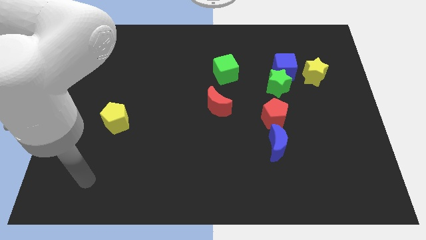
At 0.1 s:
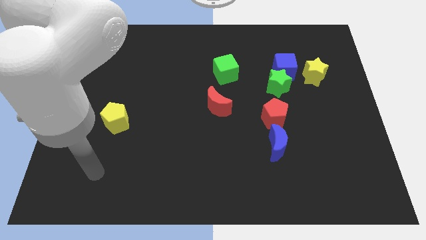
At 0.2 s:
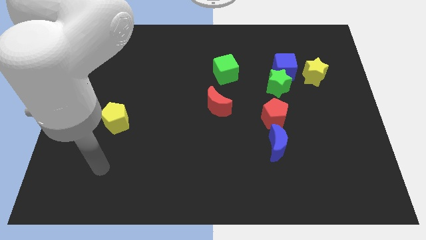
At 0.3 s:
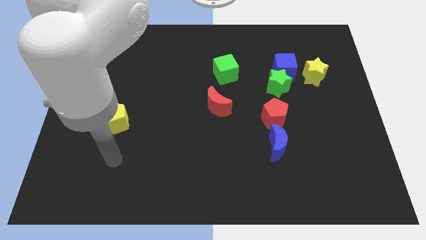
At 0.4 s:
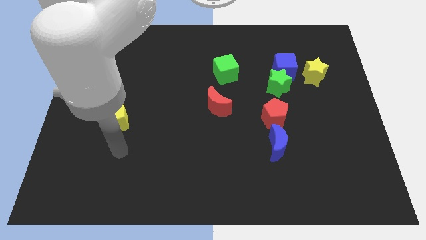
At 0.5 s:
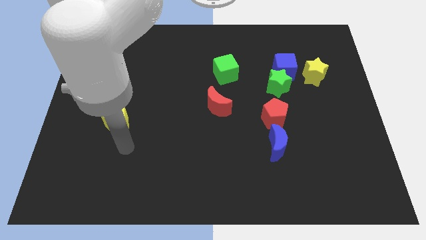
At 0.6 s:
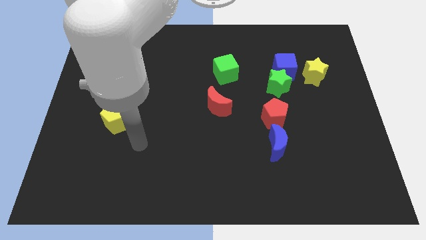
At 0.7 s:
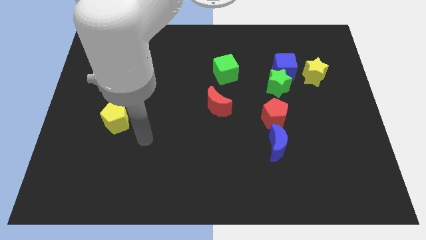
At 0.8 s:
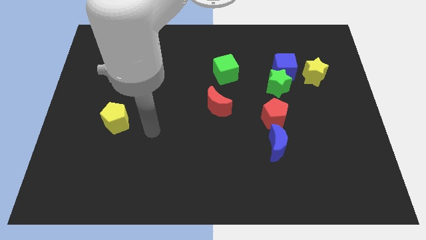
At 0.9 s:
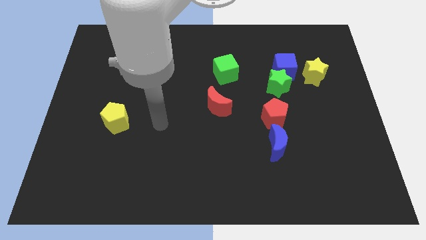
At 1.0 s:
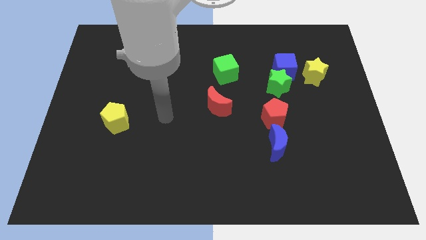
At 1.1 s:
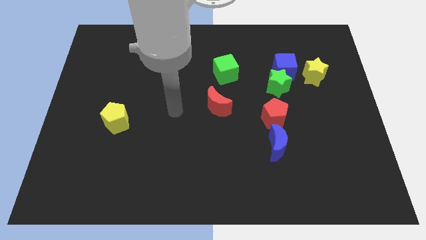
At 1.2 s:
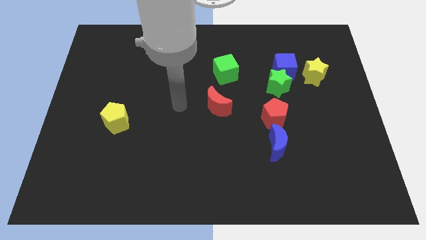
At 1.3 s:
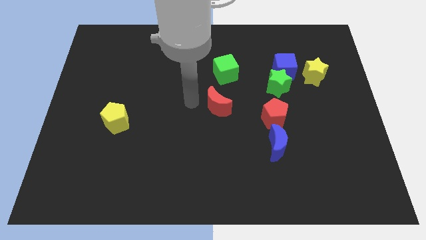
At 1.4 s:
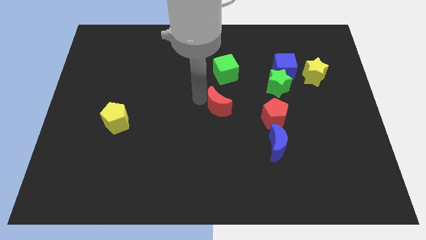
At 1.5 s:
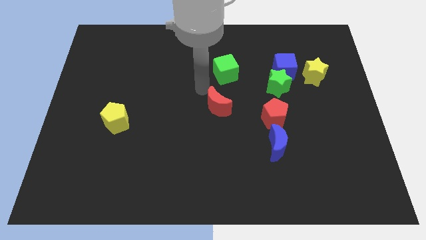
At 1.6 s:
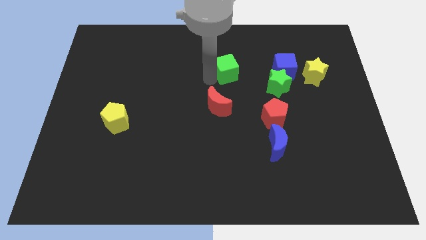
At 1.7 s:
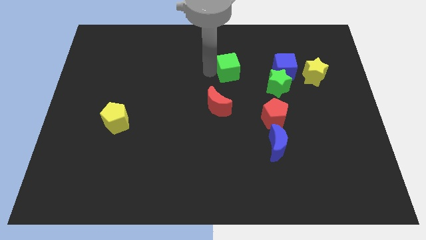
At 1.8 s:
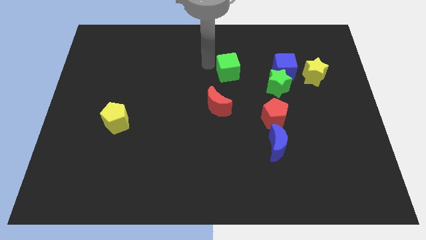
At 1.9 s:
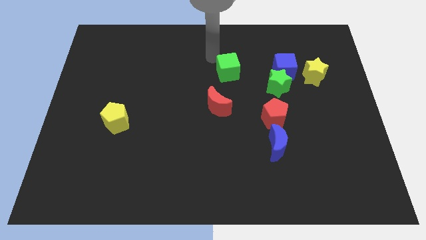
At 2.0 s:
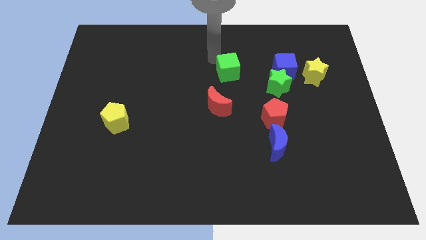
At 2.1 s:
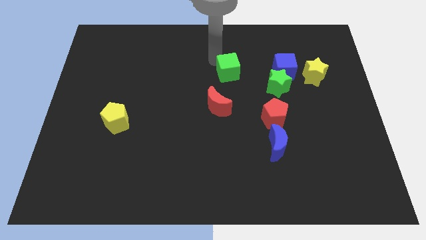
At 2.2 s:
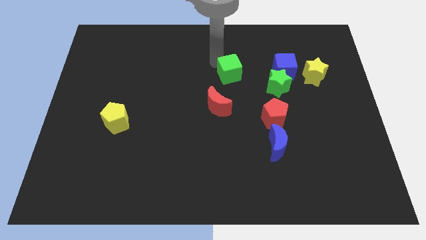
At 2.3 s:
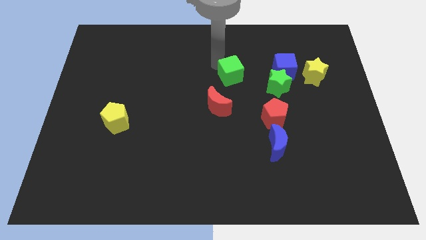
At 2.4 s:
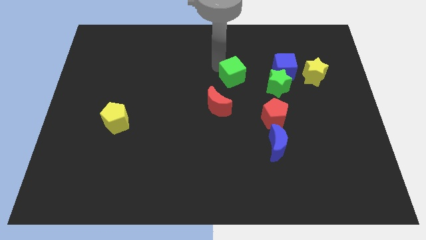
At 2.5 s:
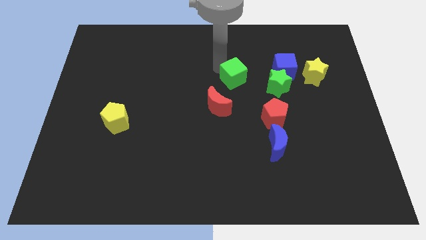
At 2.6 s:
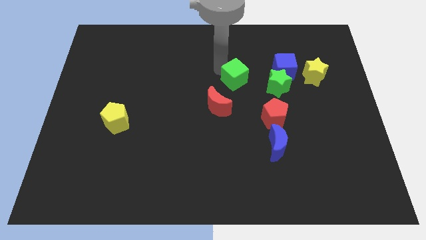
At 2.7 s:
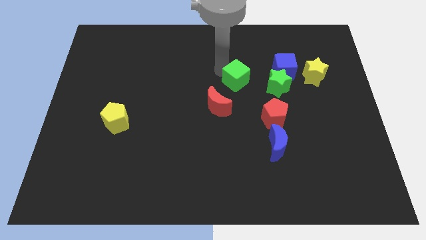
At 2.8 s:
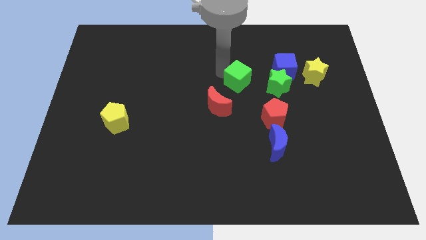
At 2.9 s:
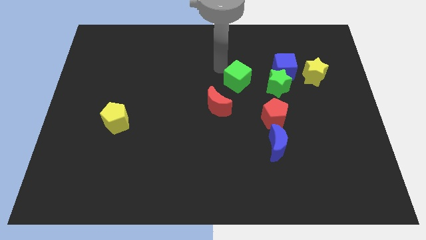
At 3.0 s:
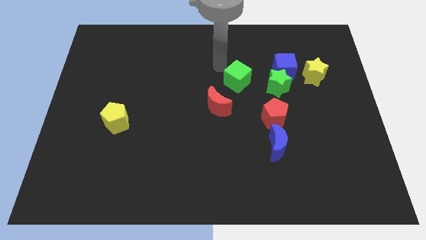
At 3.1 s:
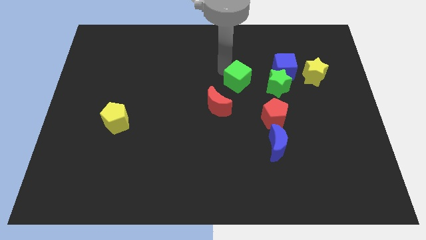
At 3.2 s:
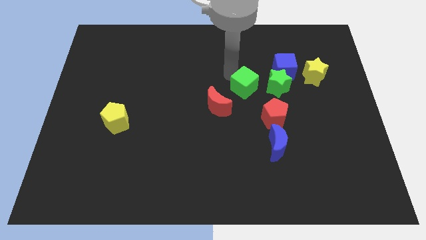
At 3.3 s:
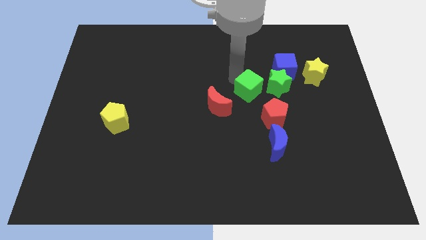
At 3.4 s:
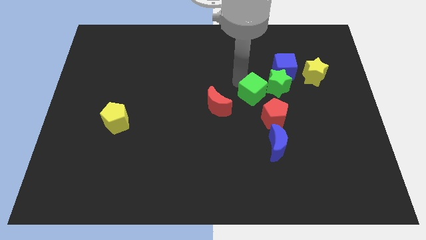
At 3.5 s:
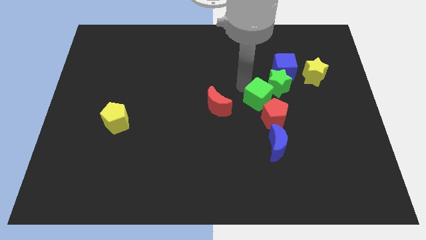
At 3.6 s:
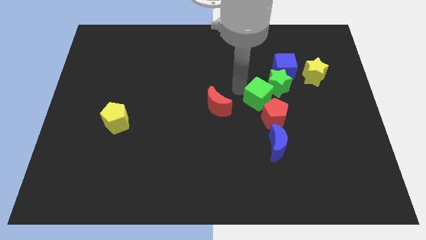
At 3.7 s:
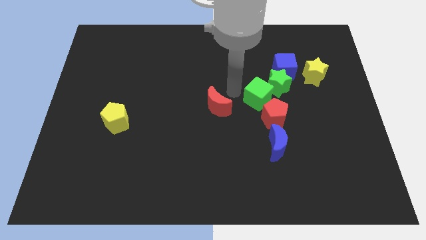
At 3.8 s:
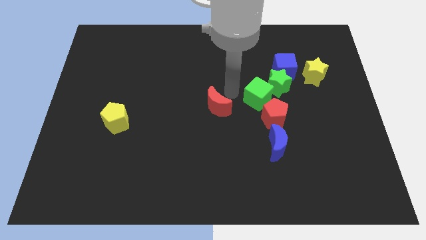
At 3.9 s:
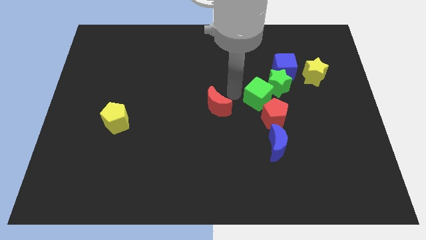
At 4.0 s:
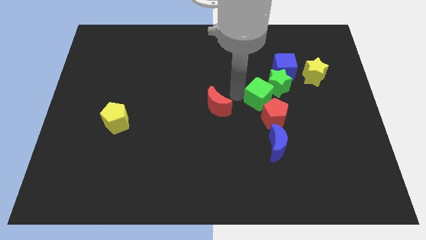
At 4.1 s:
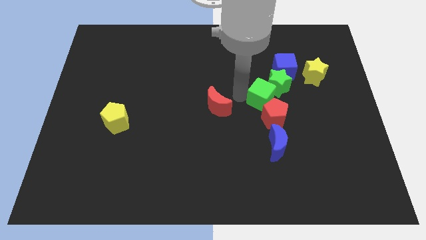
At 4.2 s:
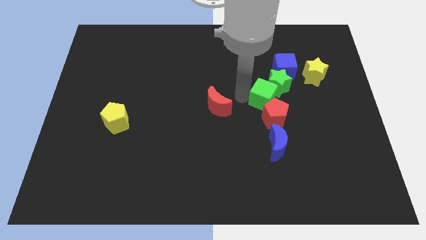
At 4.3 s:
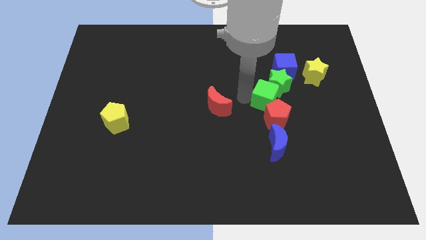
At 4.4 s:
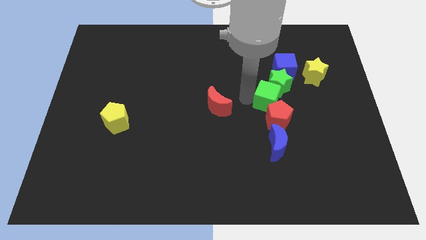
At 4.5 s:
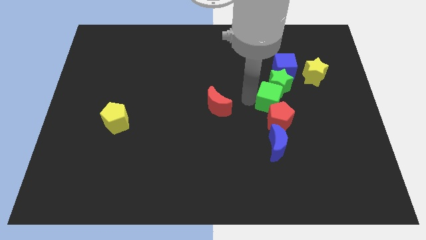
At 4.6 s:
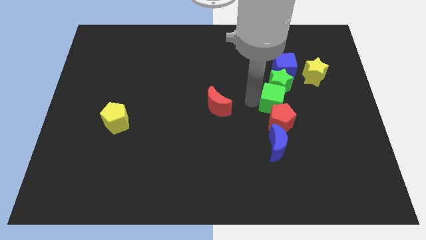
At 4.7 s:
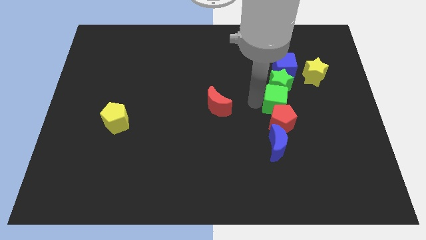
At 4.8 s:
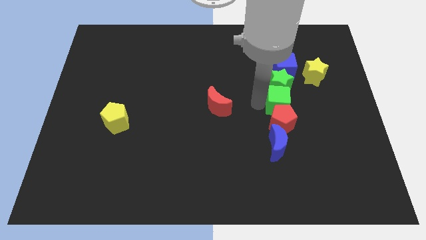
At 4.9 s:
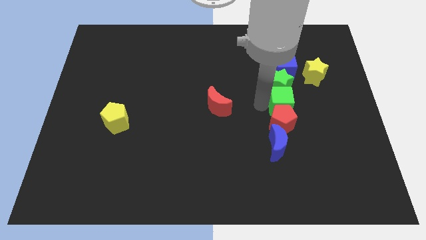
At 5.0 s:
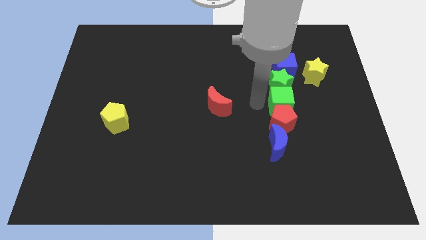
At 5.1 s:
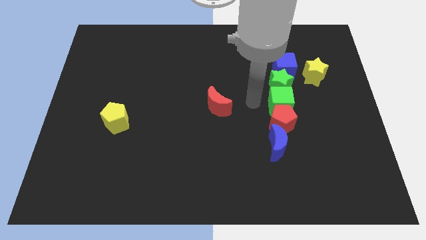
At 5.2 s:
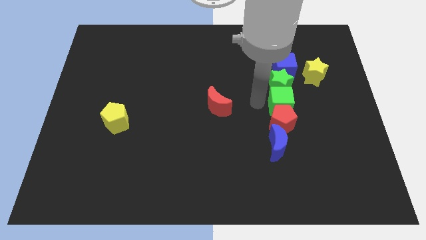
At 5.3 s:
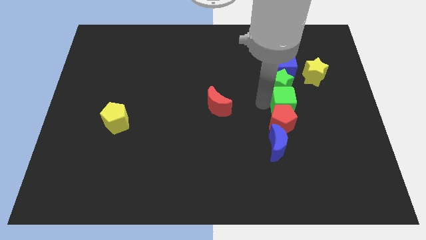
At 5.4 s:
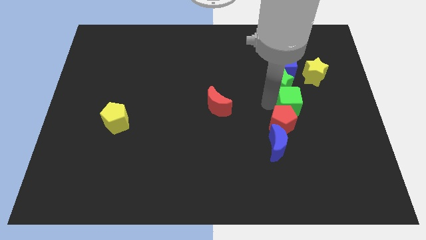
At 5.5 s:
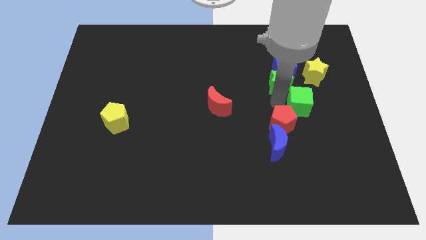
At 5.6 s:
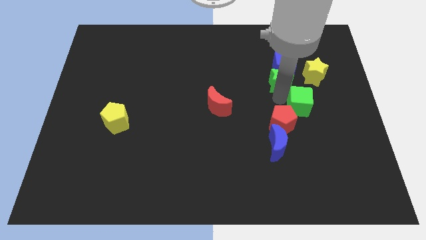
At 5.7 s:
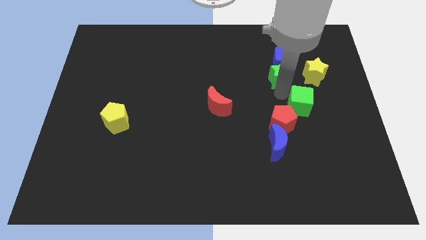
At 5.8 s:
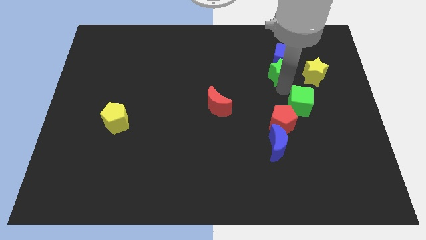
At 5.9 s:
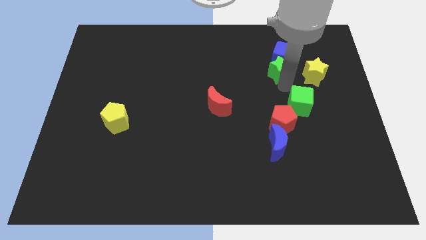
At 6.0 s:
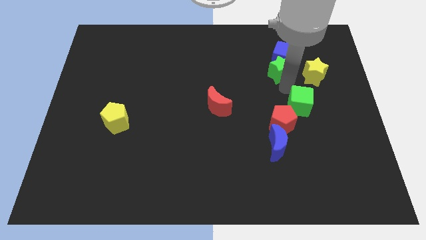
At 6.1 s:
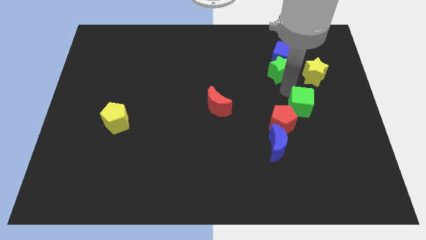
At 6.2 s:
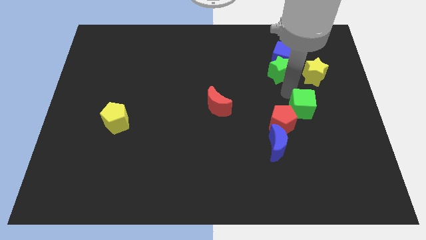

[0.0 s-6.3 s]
push the green cube downwards and then right

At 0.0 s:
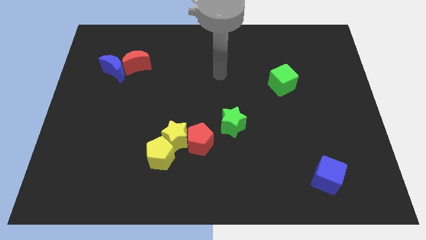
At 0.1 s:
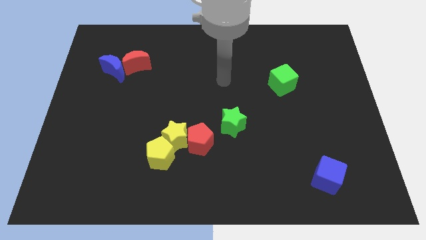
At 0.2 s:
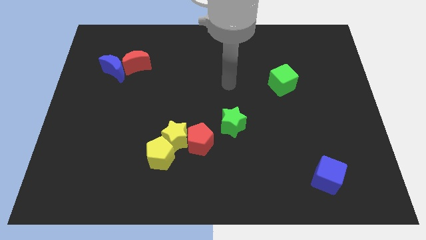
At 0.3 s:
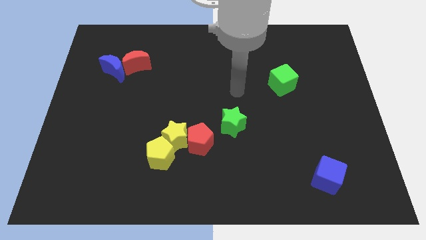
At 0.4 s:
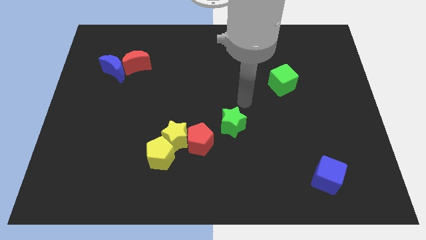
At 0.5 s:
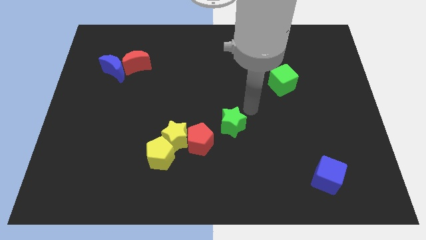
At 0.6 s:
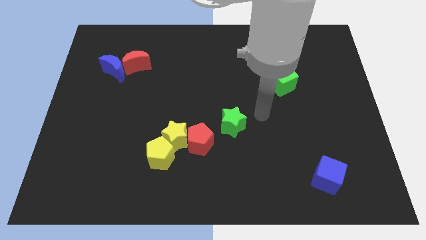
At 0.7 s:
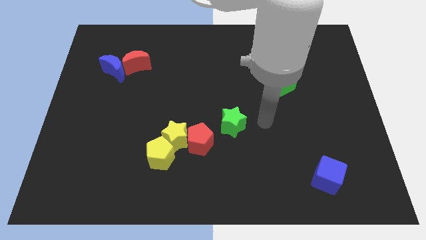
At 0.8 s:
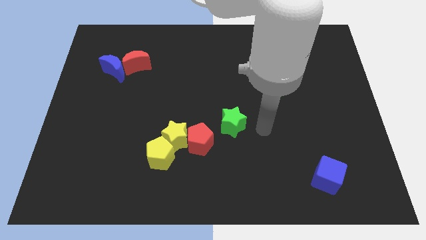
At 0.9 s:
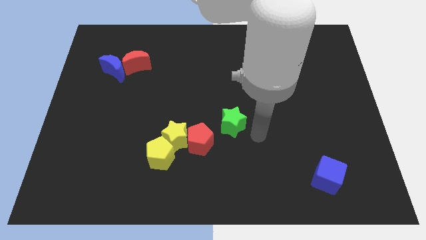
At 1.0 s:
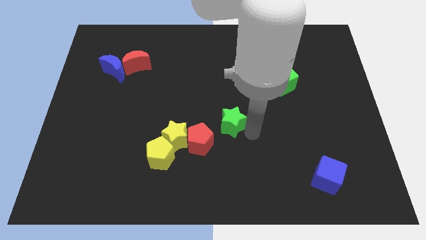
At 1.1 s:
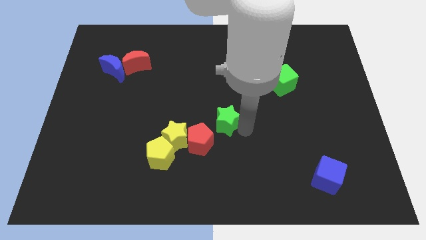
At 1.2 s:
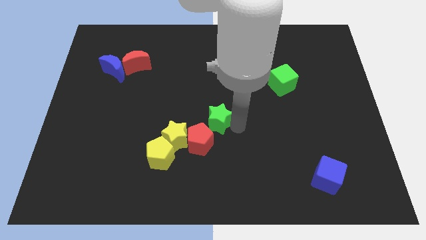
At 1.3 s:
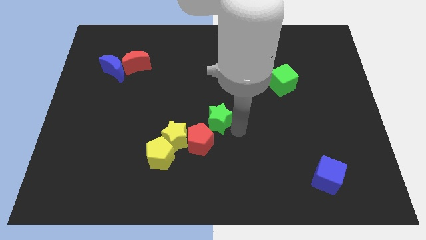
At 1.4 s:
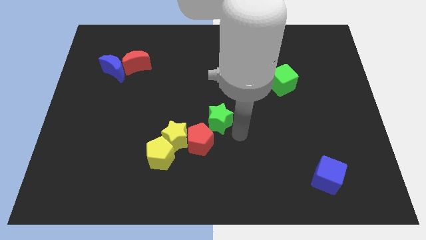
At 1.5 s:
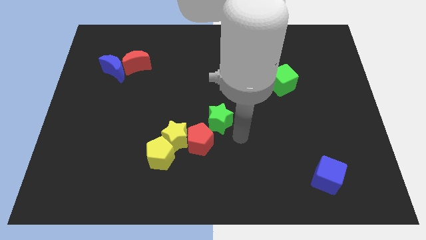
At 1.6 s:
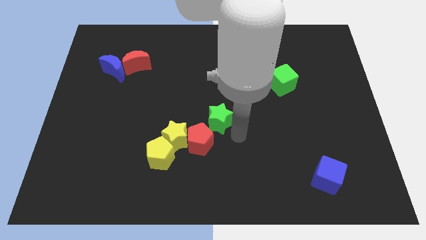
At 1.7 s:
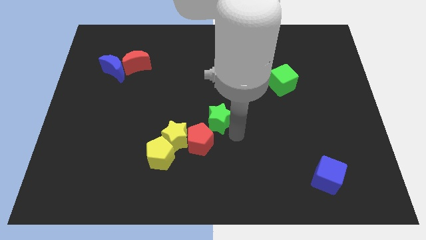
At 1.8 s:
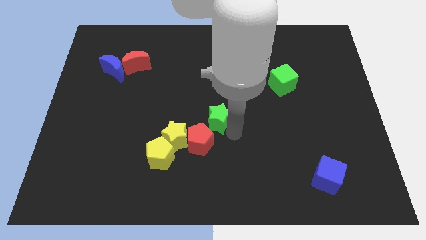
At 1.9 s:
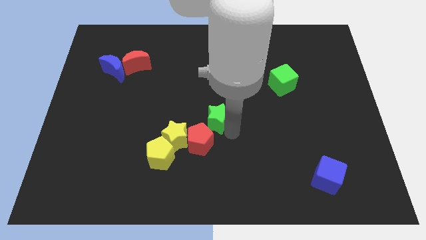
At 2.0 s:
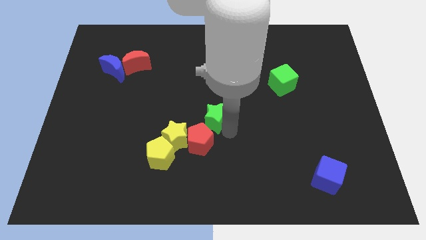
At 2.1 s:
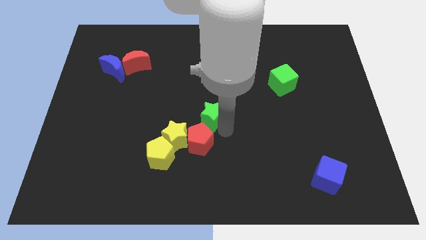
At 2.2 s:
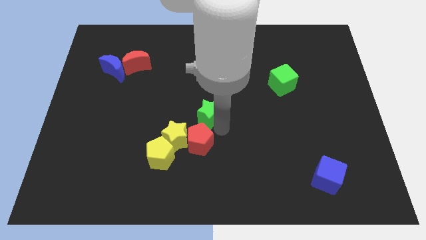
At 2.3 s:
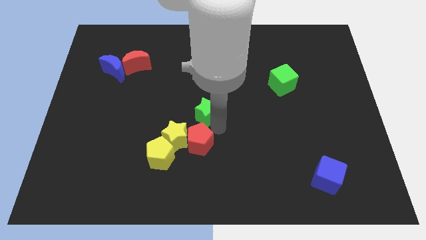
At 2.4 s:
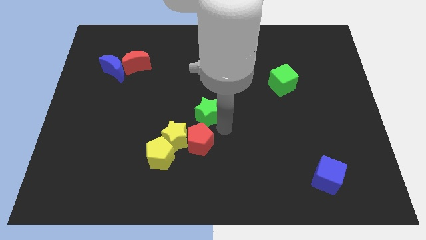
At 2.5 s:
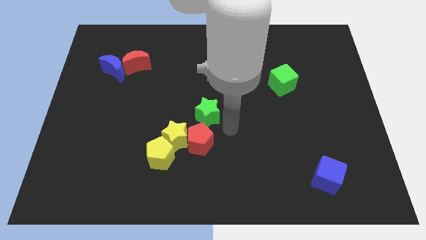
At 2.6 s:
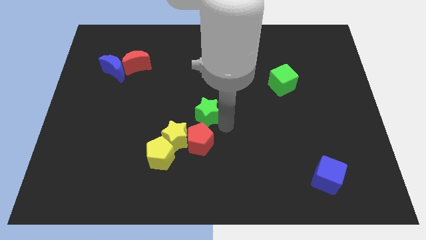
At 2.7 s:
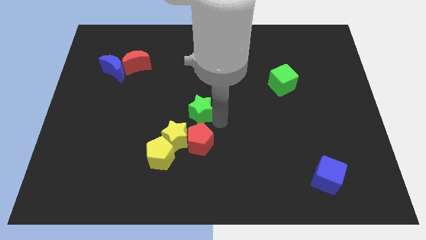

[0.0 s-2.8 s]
move the green star a little up and left
